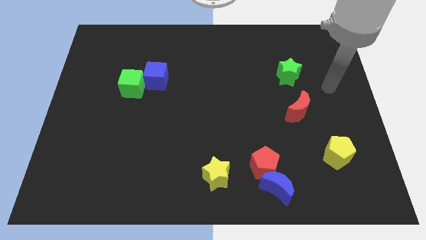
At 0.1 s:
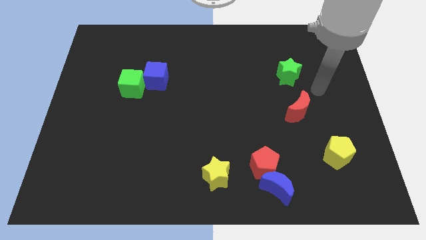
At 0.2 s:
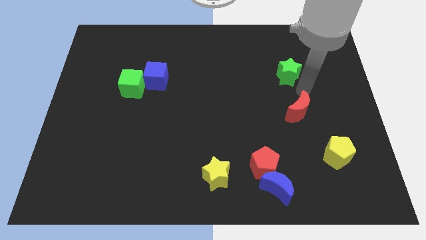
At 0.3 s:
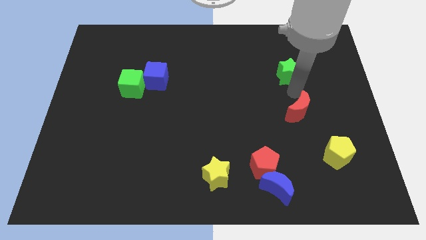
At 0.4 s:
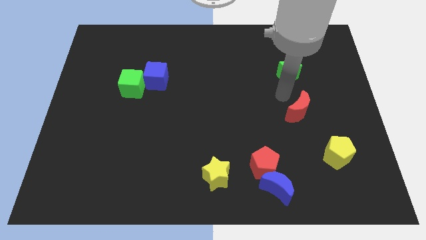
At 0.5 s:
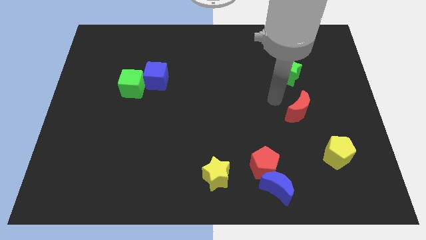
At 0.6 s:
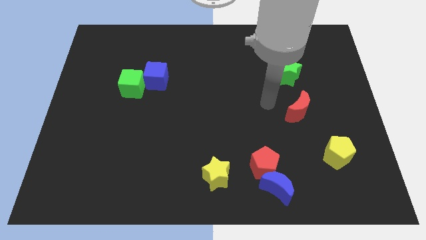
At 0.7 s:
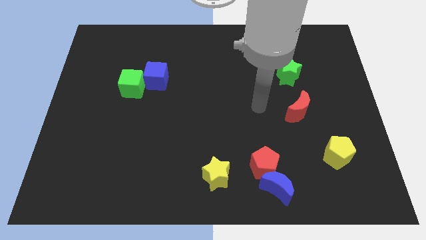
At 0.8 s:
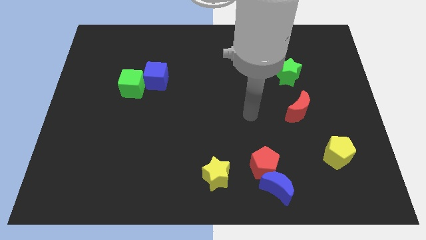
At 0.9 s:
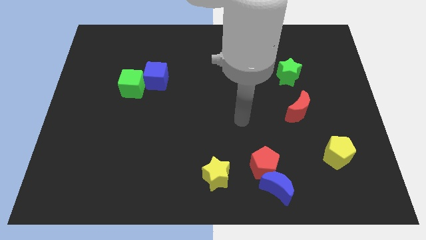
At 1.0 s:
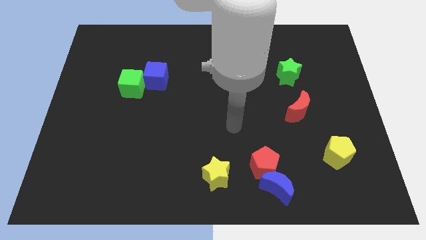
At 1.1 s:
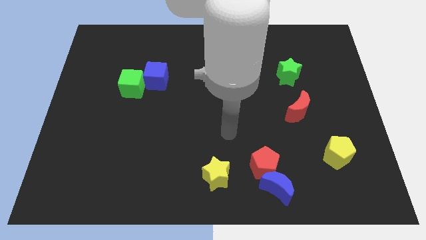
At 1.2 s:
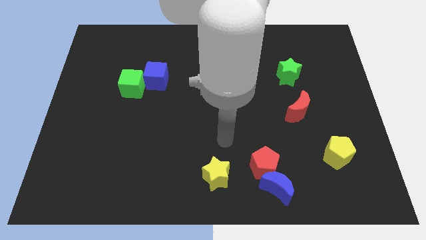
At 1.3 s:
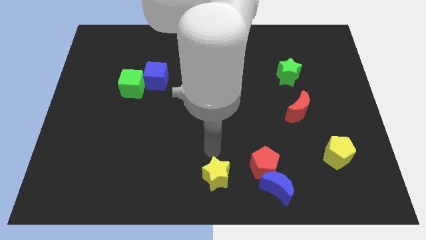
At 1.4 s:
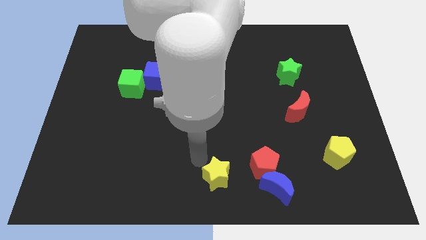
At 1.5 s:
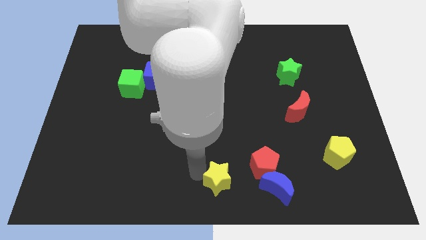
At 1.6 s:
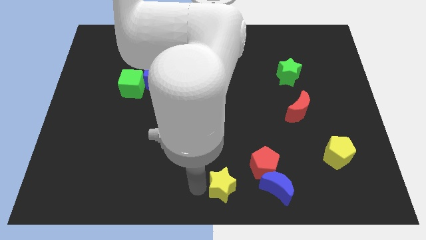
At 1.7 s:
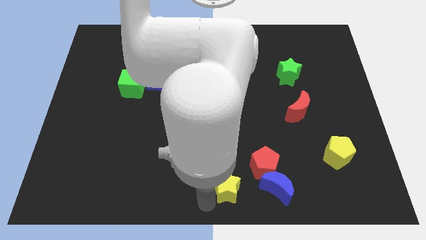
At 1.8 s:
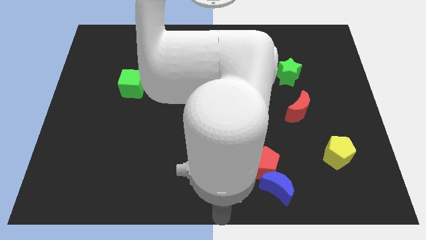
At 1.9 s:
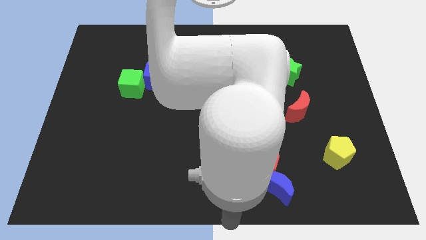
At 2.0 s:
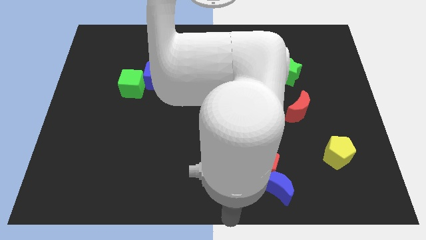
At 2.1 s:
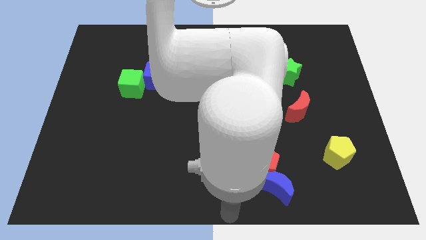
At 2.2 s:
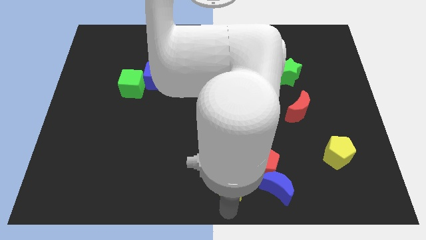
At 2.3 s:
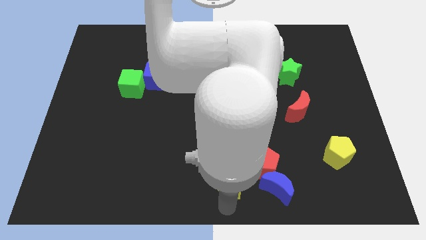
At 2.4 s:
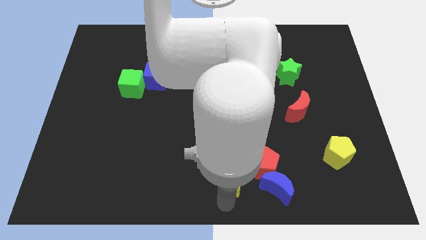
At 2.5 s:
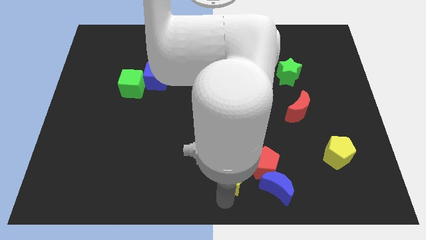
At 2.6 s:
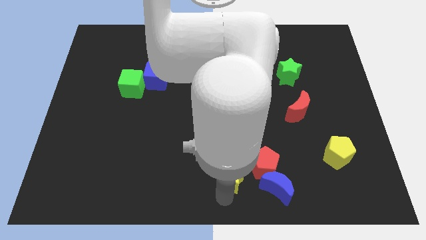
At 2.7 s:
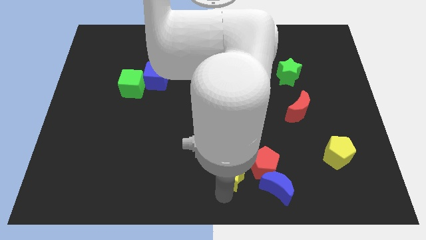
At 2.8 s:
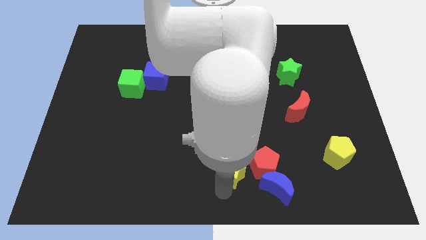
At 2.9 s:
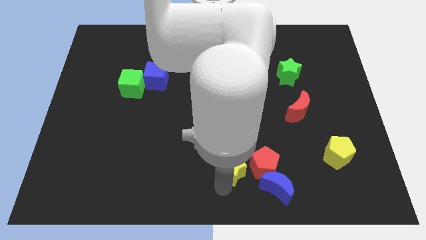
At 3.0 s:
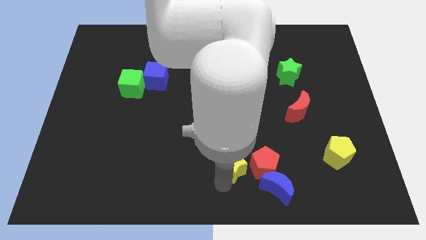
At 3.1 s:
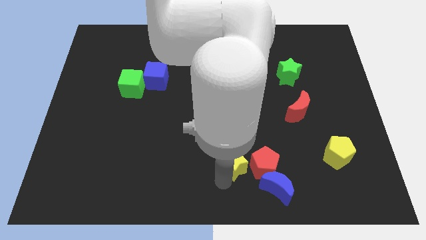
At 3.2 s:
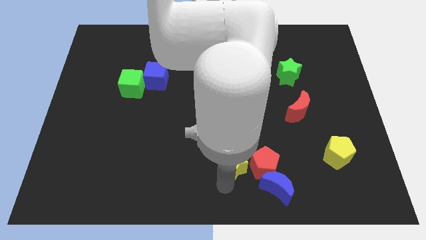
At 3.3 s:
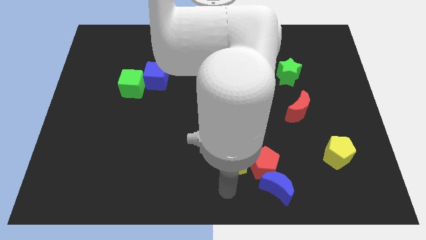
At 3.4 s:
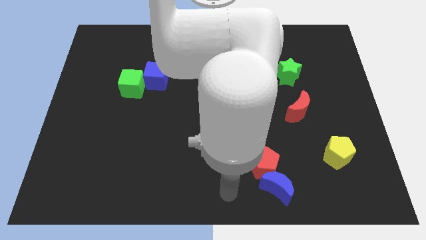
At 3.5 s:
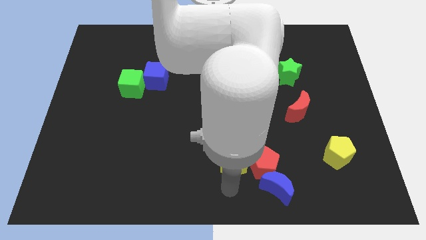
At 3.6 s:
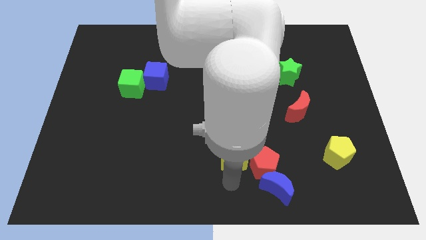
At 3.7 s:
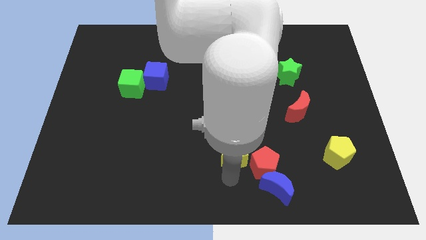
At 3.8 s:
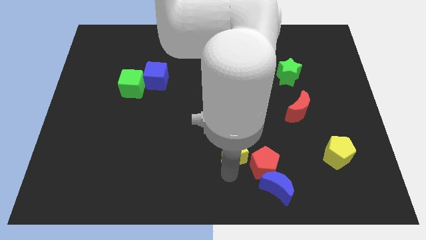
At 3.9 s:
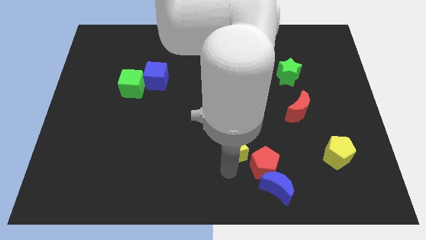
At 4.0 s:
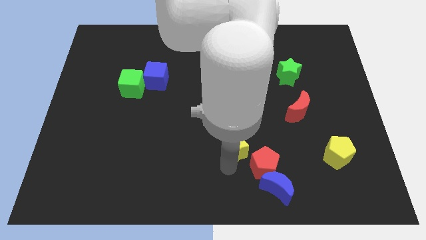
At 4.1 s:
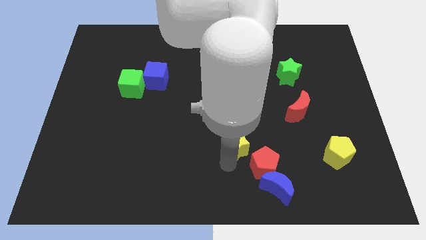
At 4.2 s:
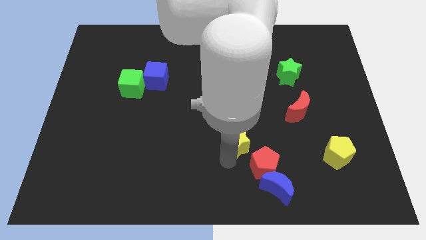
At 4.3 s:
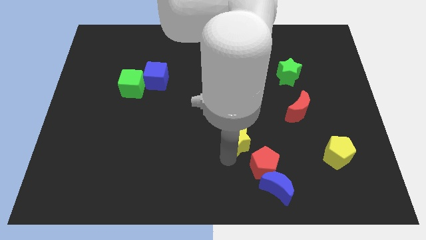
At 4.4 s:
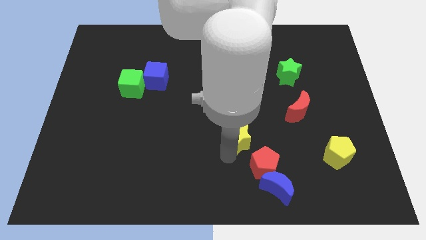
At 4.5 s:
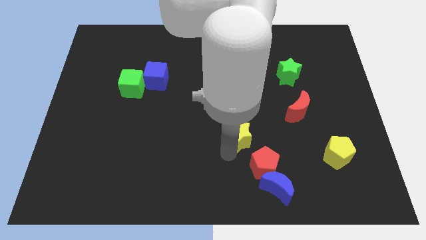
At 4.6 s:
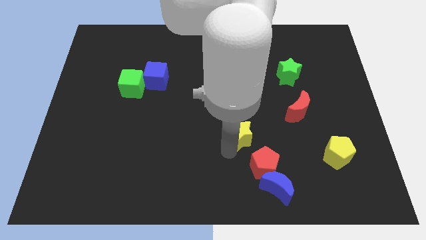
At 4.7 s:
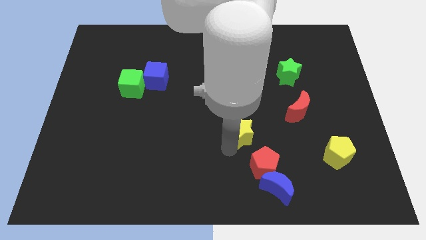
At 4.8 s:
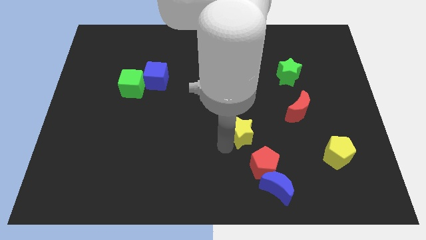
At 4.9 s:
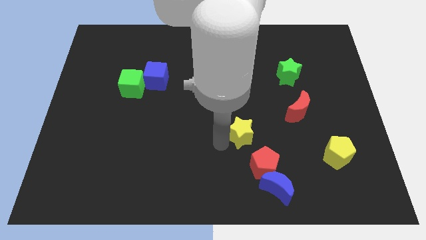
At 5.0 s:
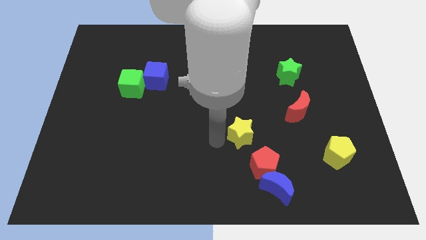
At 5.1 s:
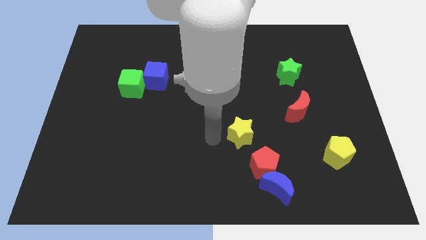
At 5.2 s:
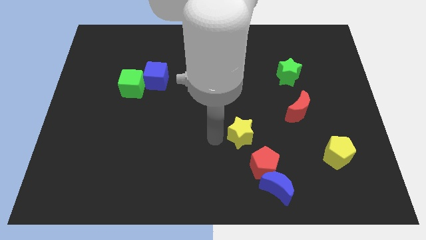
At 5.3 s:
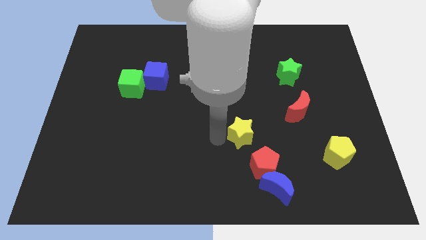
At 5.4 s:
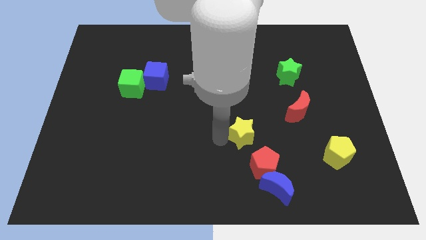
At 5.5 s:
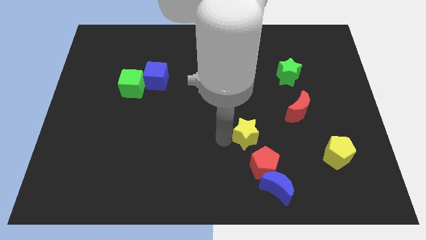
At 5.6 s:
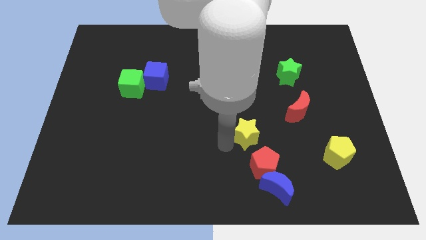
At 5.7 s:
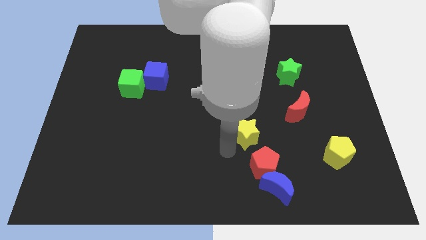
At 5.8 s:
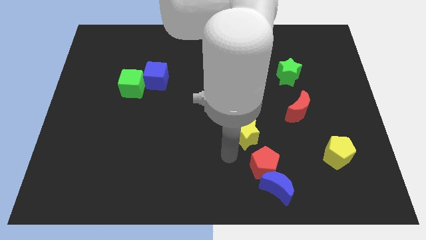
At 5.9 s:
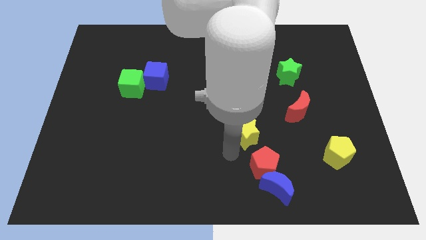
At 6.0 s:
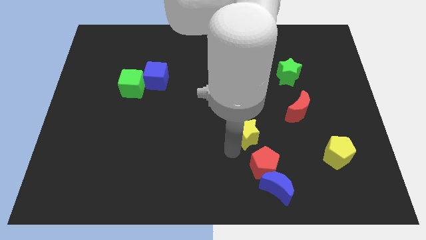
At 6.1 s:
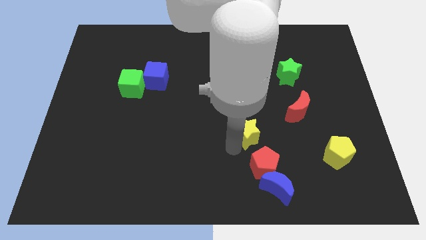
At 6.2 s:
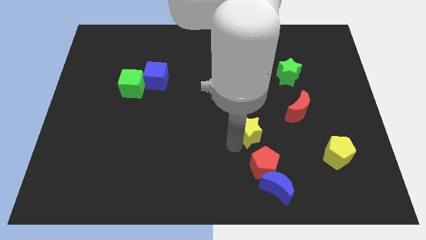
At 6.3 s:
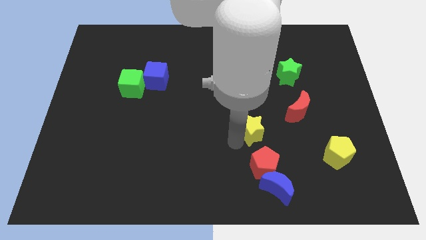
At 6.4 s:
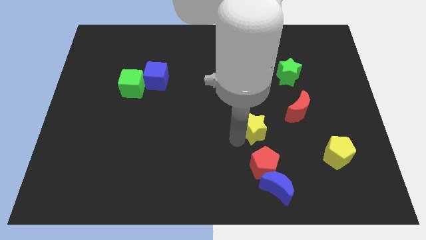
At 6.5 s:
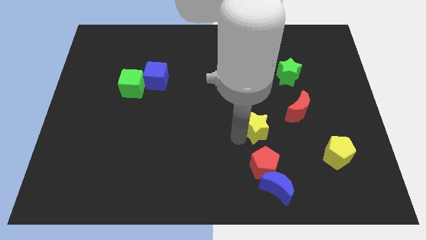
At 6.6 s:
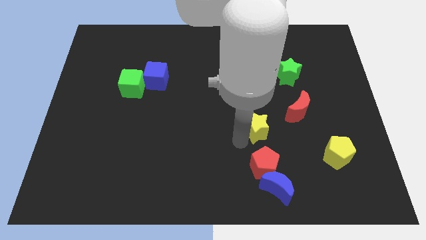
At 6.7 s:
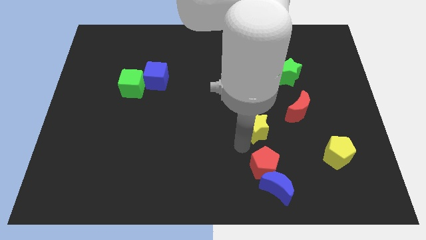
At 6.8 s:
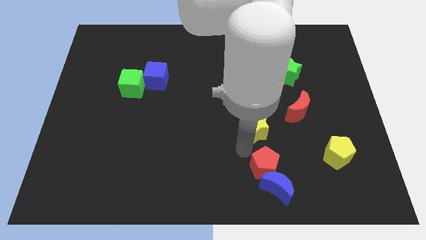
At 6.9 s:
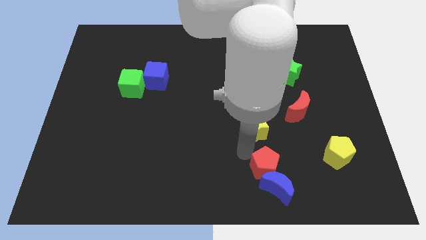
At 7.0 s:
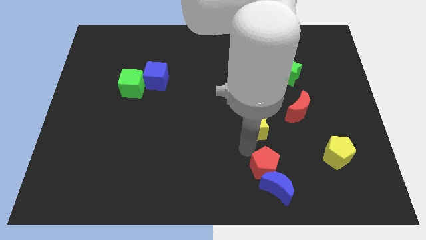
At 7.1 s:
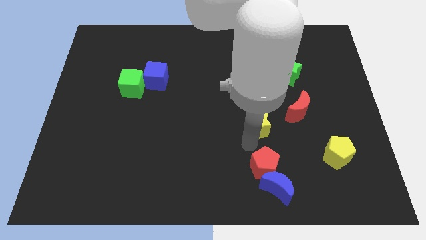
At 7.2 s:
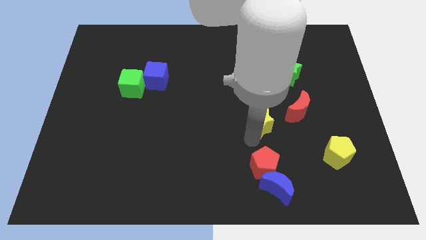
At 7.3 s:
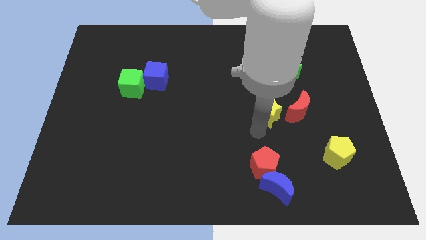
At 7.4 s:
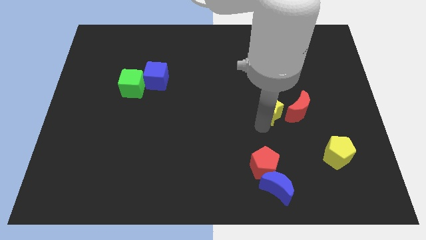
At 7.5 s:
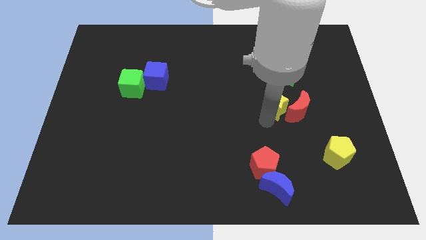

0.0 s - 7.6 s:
push the yellow star to the bottom left side of the green star
